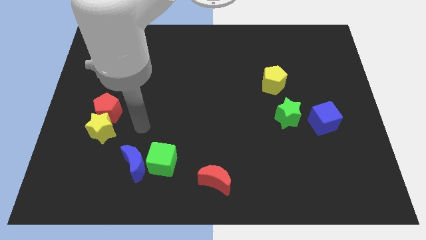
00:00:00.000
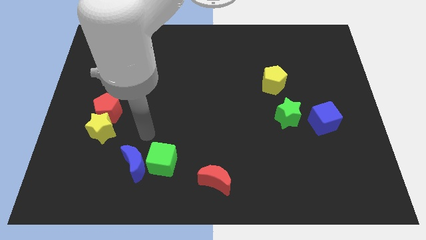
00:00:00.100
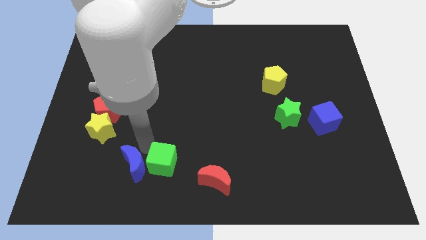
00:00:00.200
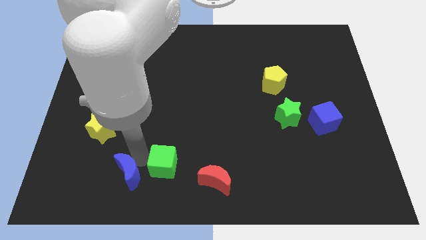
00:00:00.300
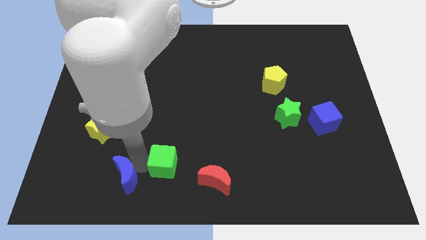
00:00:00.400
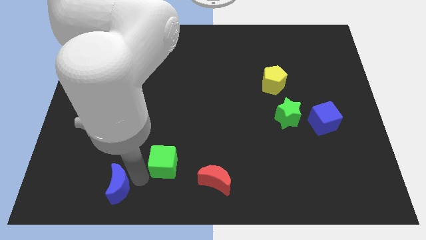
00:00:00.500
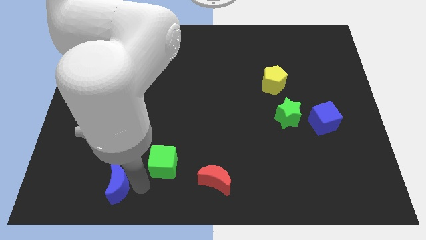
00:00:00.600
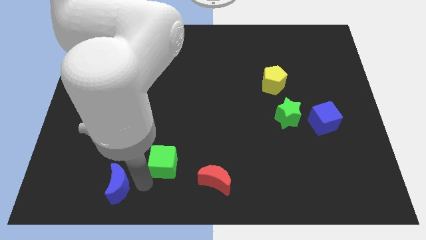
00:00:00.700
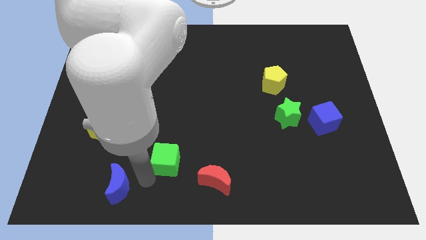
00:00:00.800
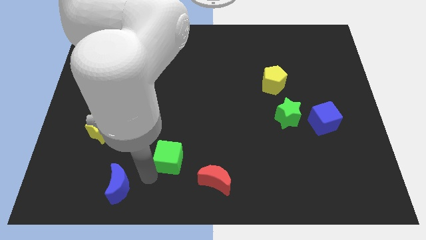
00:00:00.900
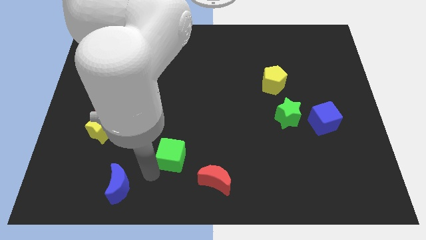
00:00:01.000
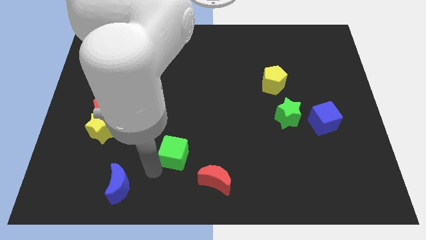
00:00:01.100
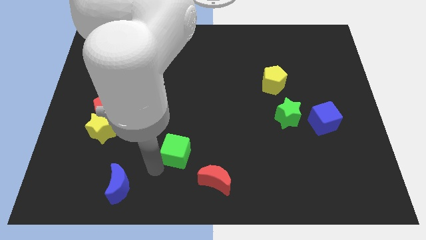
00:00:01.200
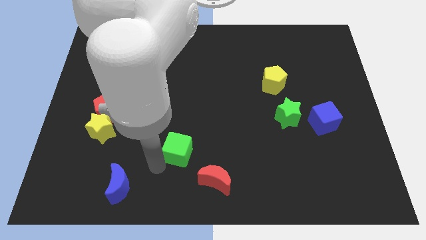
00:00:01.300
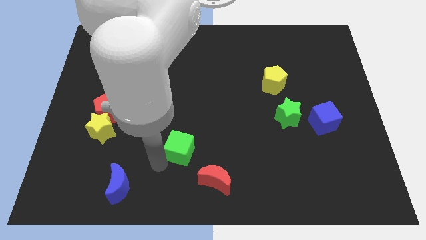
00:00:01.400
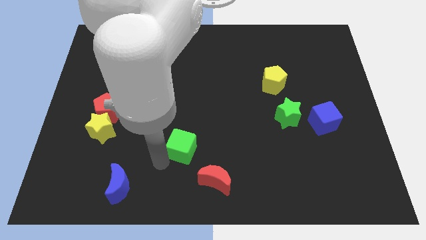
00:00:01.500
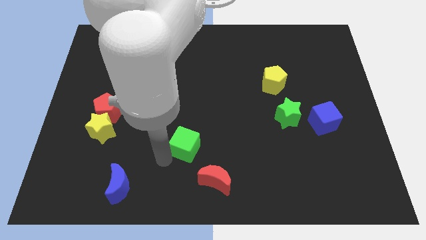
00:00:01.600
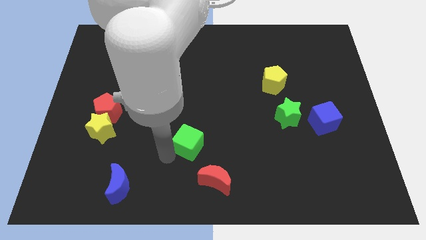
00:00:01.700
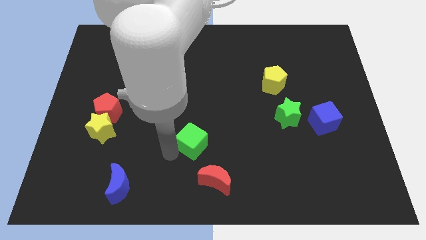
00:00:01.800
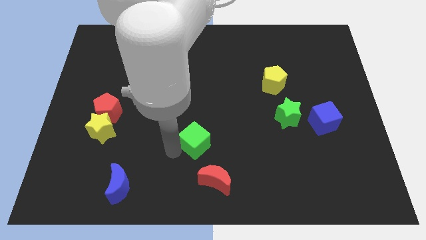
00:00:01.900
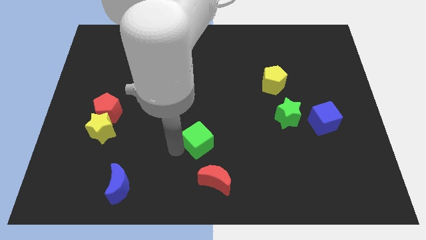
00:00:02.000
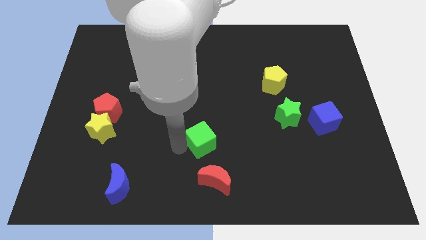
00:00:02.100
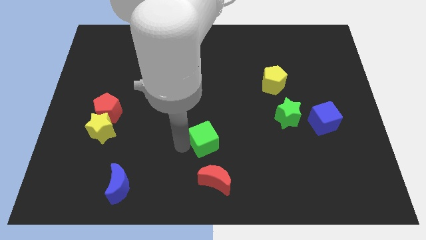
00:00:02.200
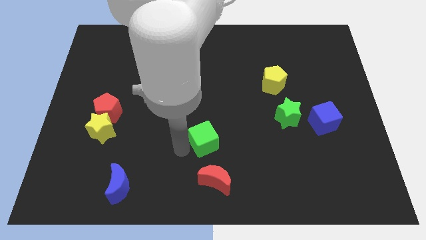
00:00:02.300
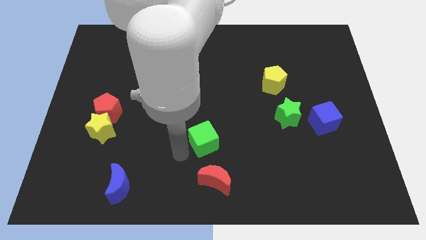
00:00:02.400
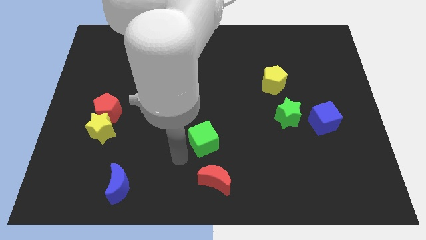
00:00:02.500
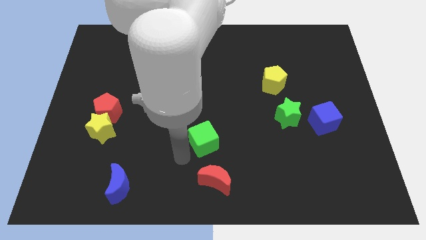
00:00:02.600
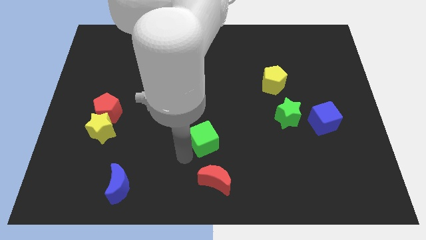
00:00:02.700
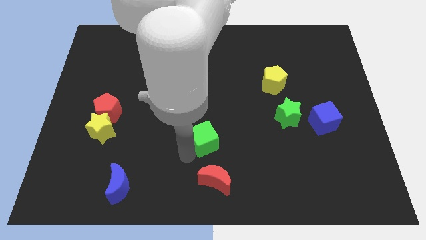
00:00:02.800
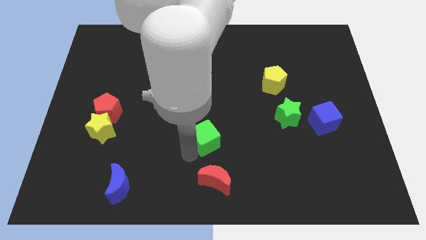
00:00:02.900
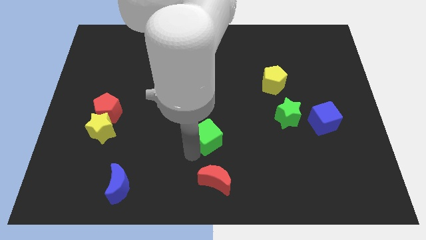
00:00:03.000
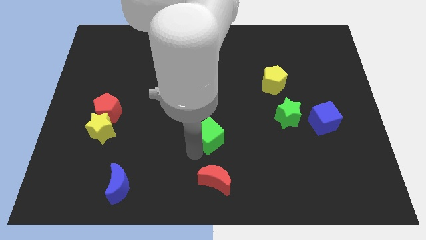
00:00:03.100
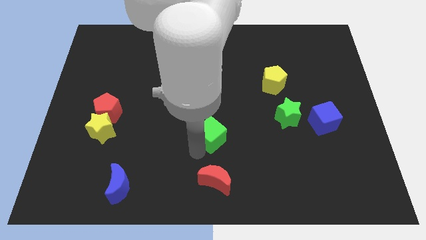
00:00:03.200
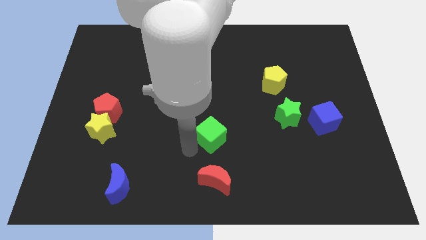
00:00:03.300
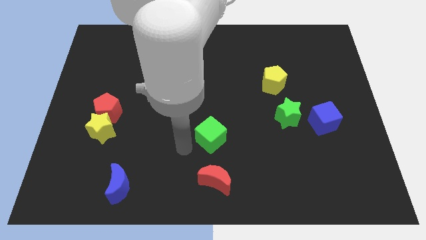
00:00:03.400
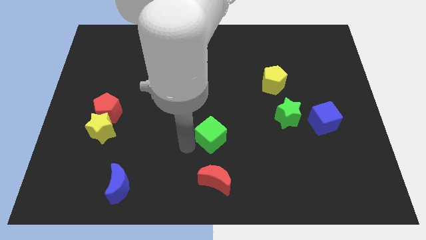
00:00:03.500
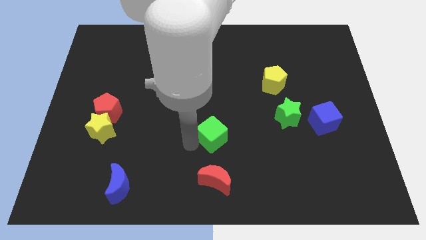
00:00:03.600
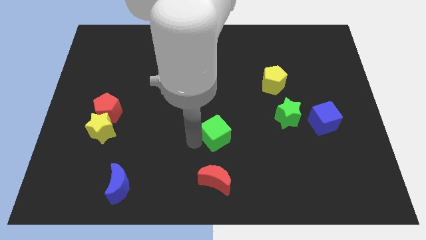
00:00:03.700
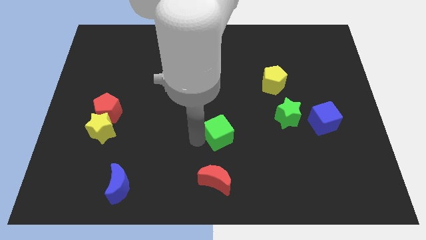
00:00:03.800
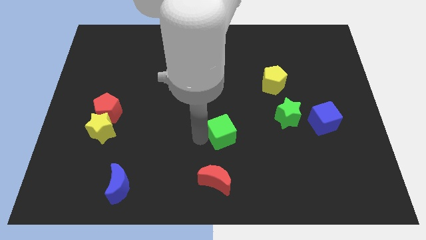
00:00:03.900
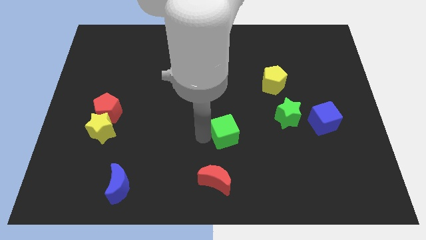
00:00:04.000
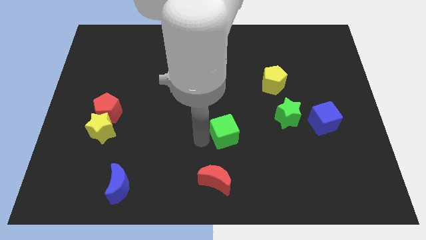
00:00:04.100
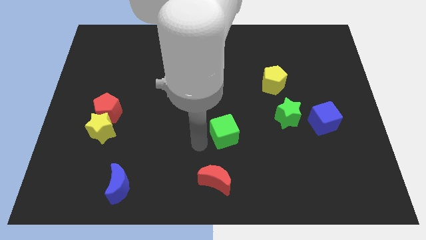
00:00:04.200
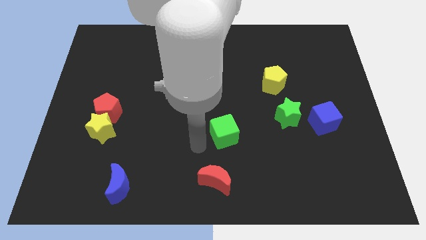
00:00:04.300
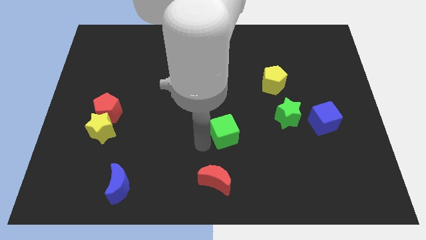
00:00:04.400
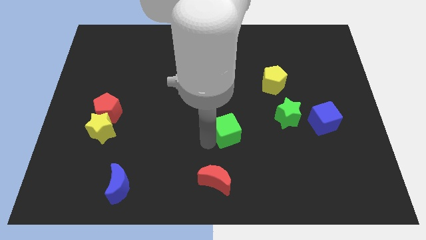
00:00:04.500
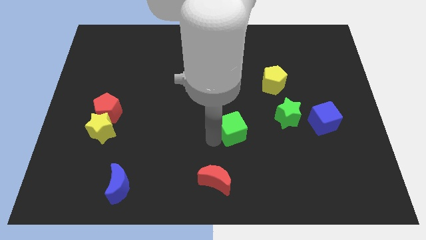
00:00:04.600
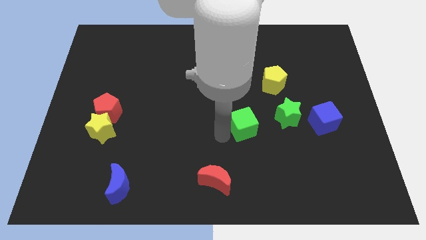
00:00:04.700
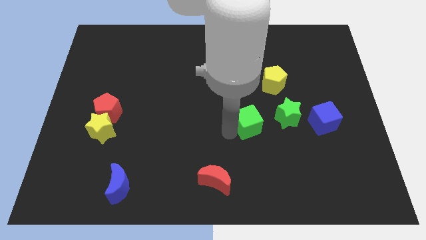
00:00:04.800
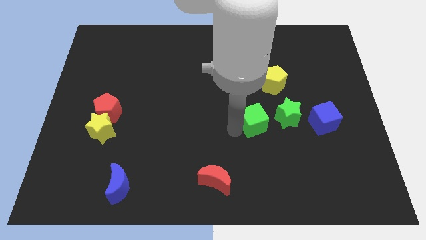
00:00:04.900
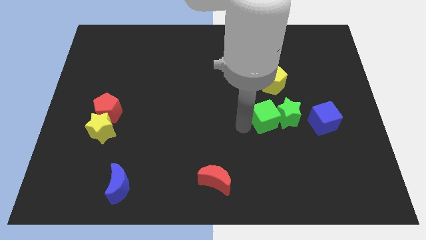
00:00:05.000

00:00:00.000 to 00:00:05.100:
move the green cube next to the green star

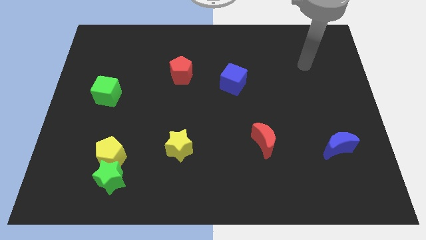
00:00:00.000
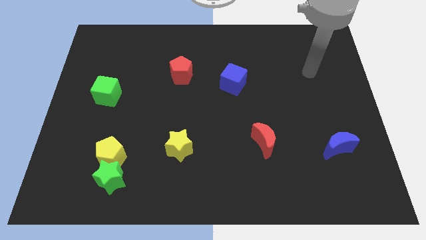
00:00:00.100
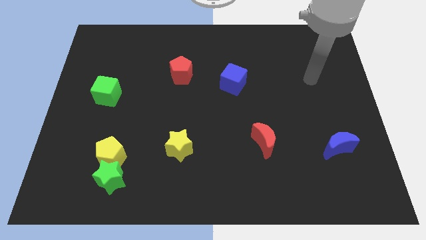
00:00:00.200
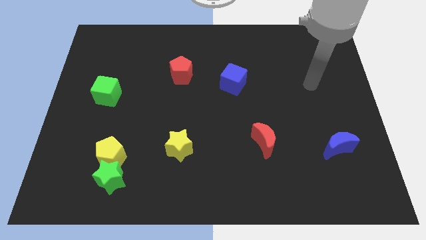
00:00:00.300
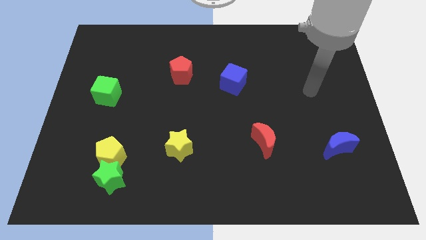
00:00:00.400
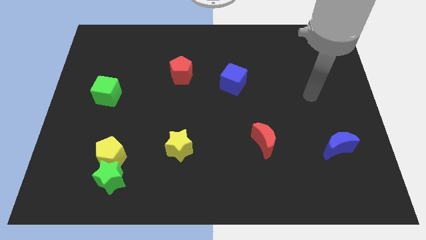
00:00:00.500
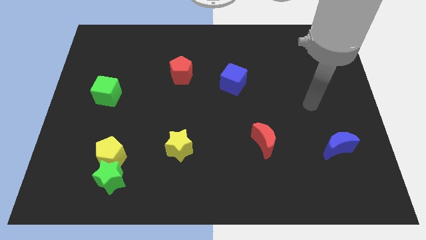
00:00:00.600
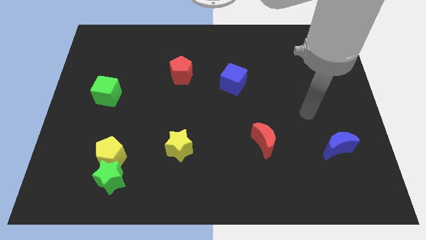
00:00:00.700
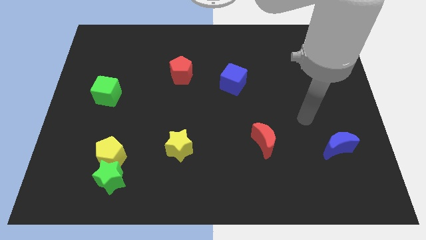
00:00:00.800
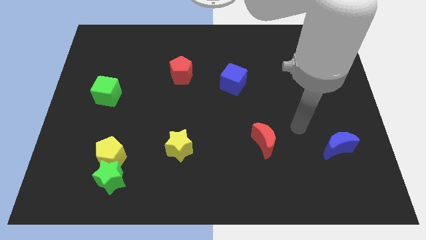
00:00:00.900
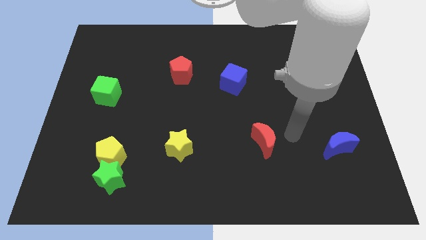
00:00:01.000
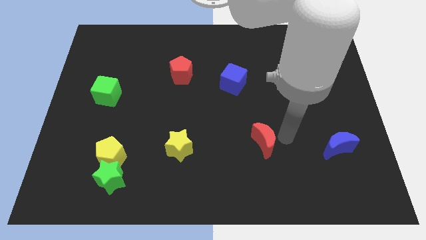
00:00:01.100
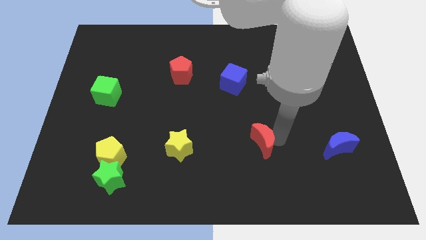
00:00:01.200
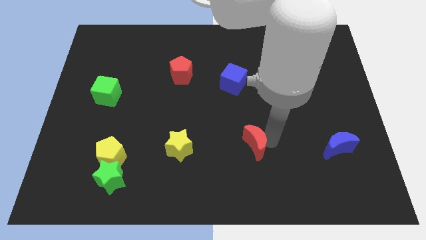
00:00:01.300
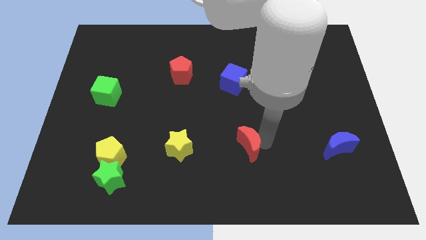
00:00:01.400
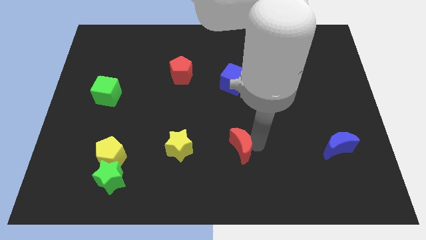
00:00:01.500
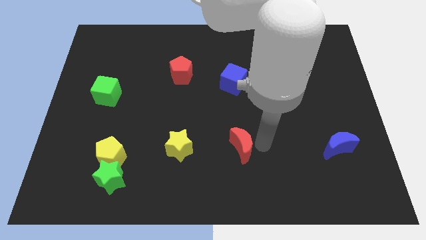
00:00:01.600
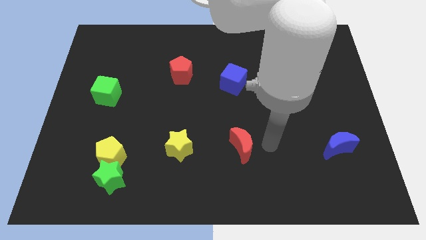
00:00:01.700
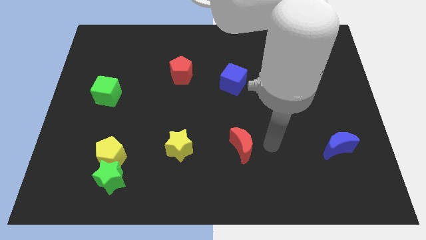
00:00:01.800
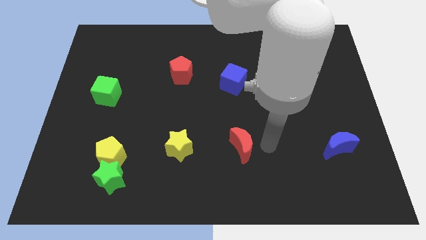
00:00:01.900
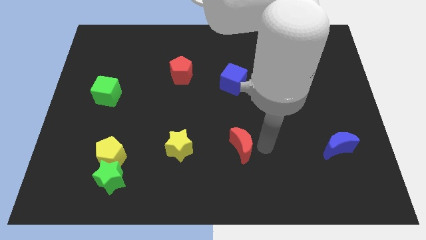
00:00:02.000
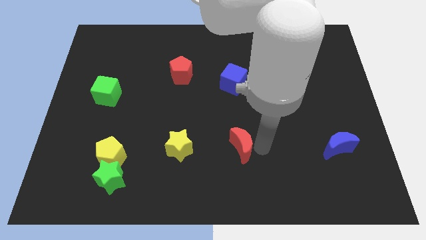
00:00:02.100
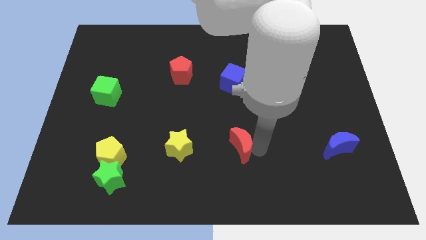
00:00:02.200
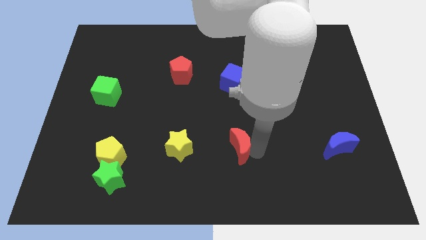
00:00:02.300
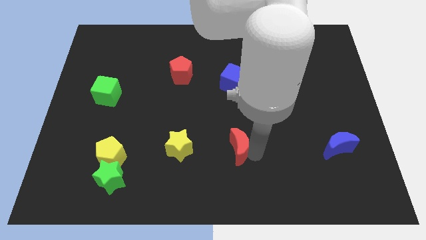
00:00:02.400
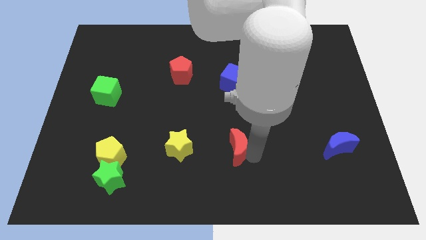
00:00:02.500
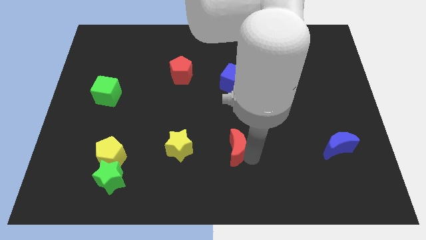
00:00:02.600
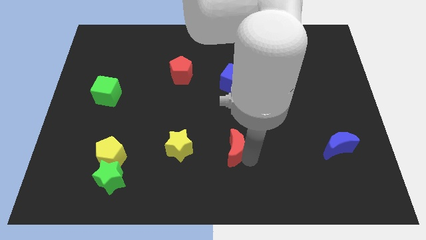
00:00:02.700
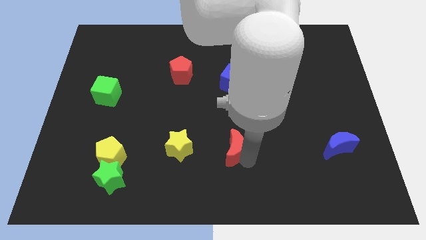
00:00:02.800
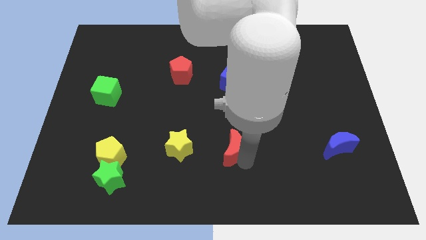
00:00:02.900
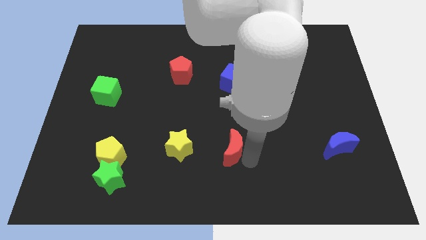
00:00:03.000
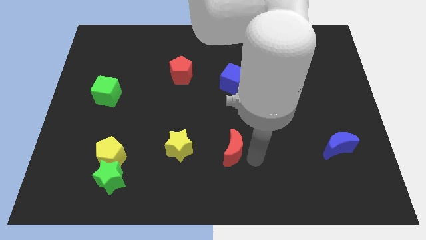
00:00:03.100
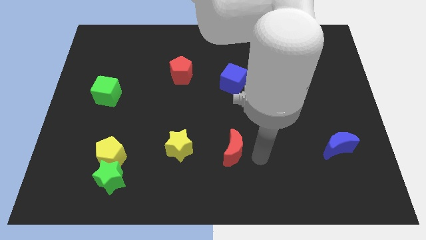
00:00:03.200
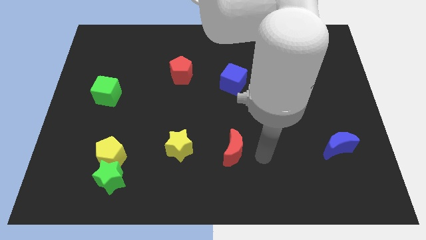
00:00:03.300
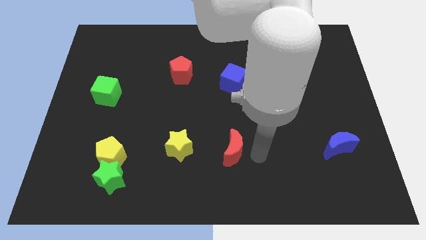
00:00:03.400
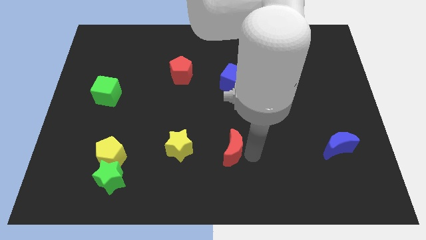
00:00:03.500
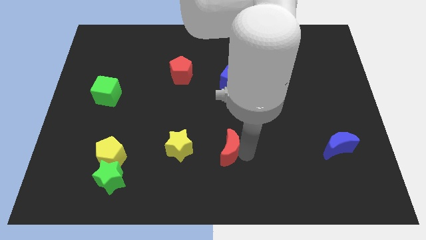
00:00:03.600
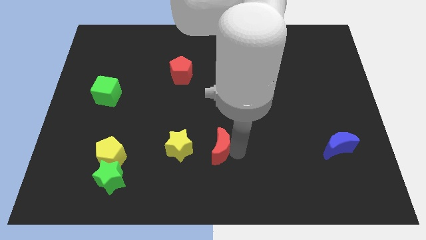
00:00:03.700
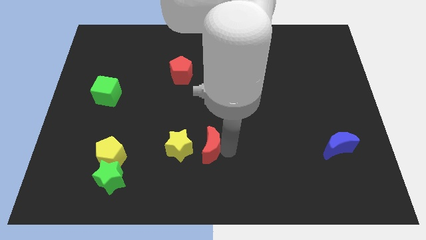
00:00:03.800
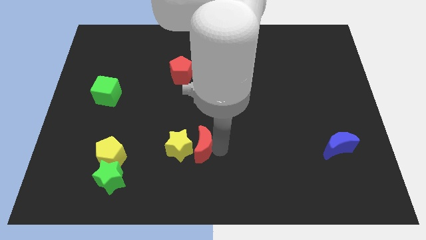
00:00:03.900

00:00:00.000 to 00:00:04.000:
put the red moon next to the yellow star
